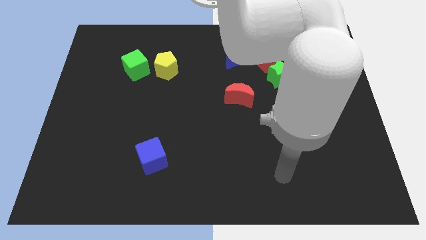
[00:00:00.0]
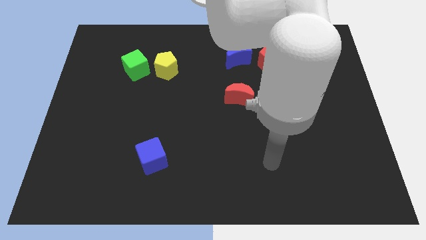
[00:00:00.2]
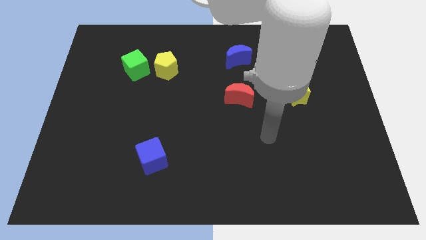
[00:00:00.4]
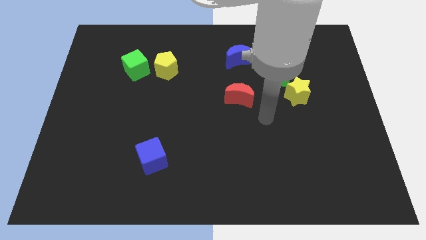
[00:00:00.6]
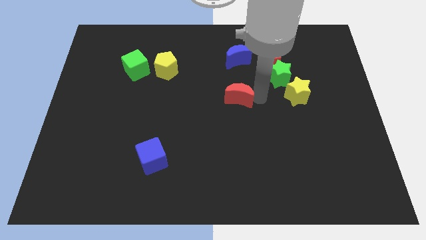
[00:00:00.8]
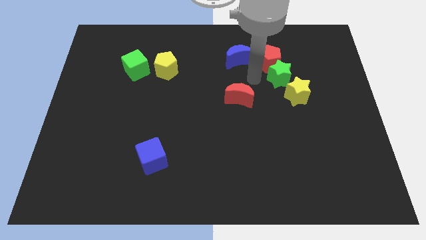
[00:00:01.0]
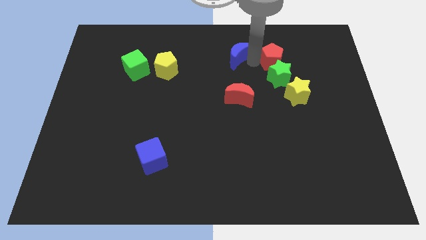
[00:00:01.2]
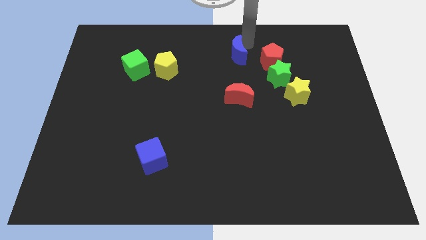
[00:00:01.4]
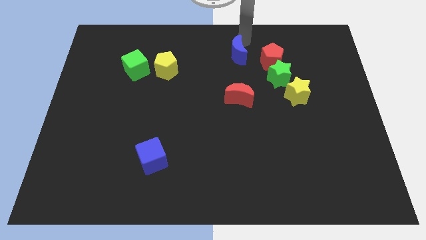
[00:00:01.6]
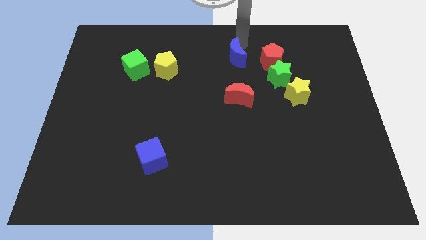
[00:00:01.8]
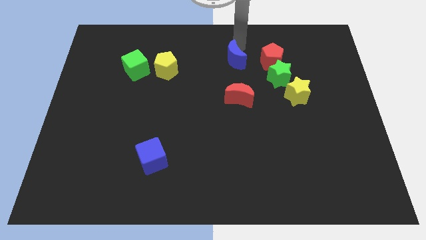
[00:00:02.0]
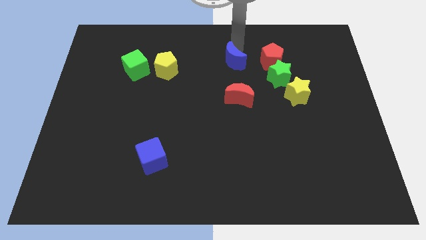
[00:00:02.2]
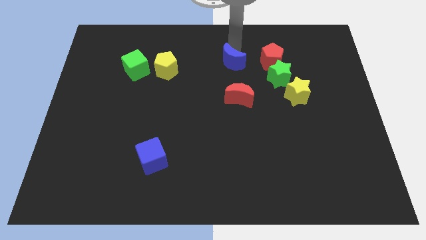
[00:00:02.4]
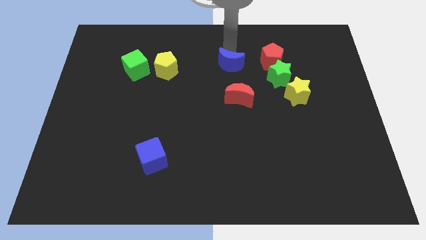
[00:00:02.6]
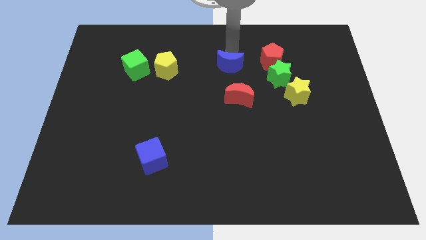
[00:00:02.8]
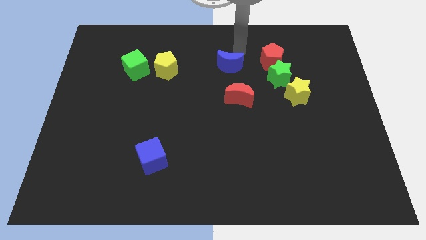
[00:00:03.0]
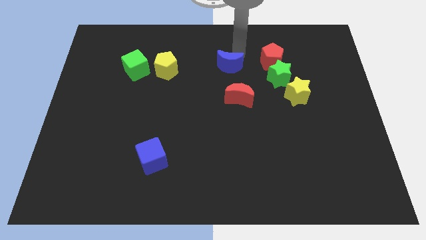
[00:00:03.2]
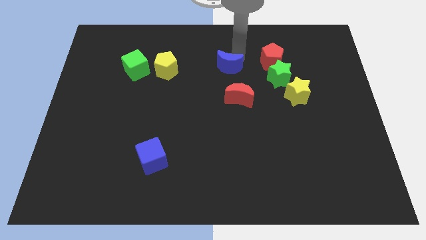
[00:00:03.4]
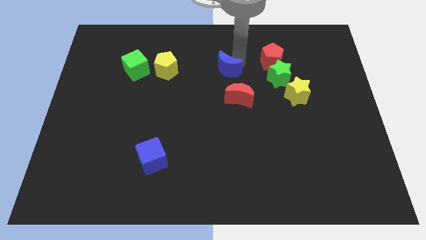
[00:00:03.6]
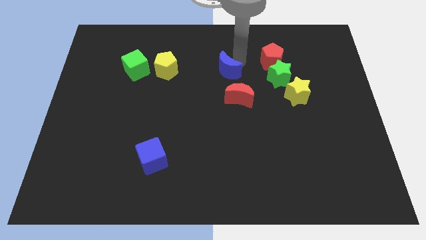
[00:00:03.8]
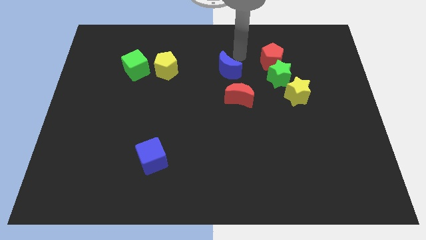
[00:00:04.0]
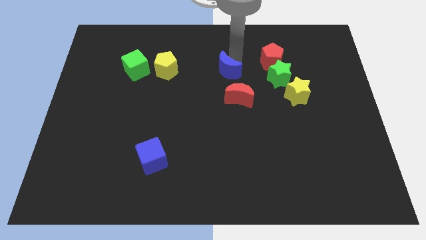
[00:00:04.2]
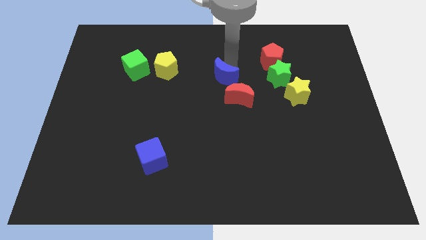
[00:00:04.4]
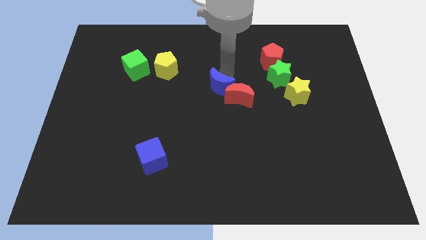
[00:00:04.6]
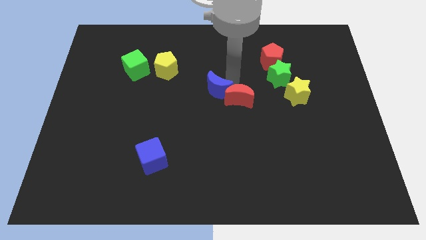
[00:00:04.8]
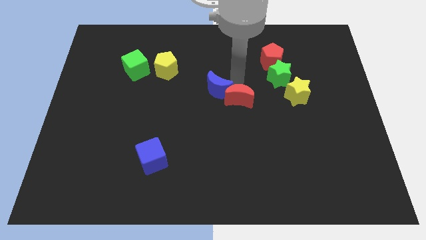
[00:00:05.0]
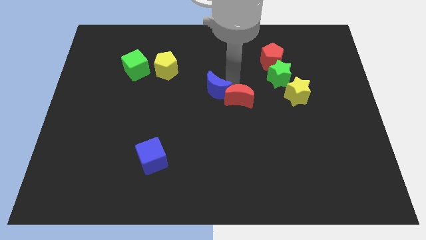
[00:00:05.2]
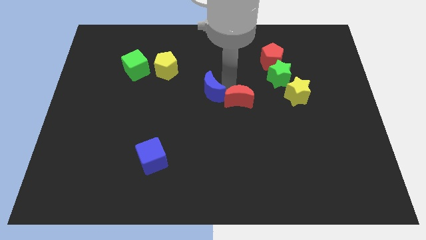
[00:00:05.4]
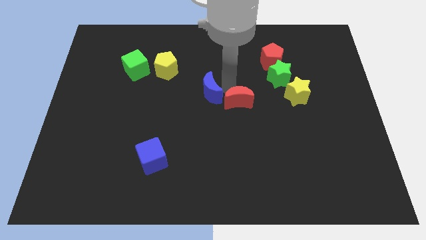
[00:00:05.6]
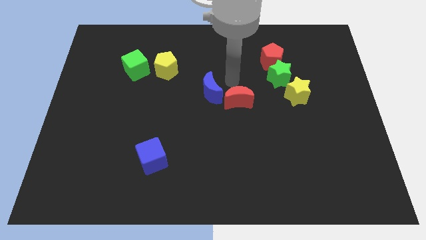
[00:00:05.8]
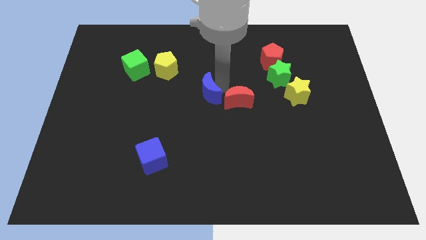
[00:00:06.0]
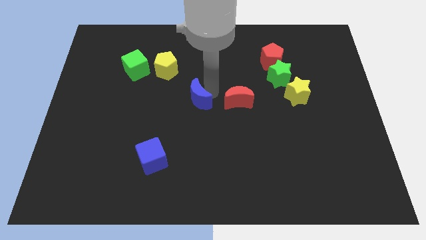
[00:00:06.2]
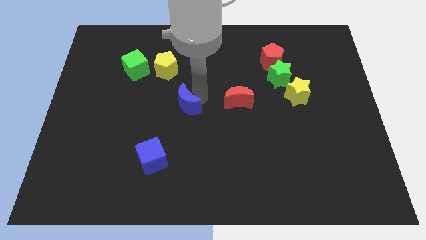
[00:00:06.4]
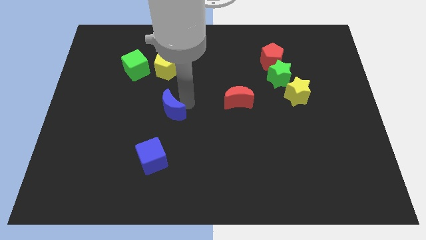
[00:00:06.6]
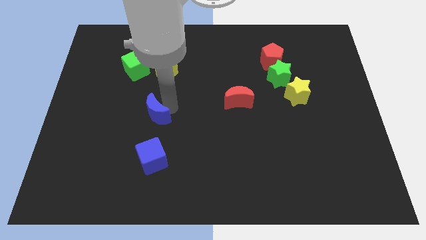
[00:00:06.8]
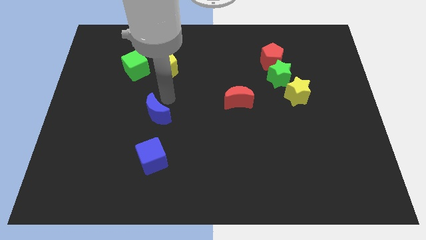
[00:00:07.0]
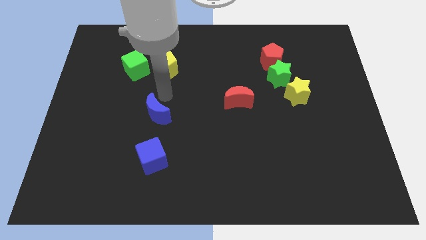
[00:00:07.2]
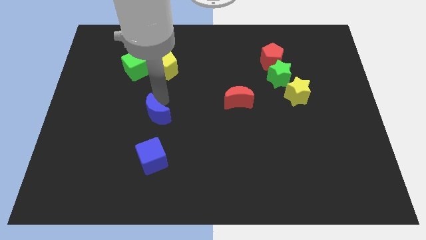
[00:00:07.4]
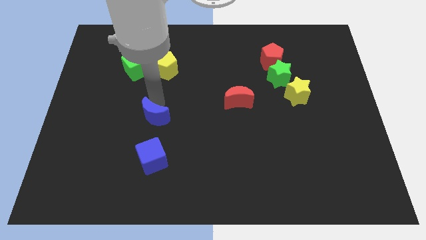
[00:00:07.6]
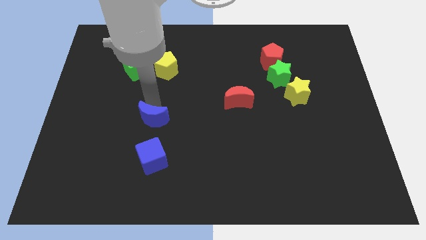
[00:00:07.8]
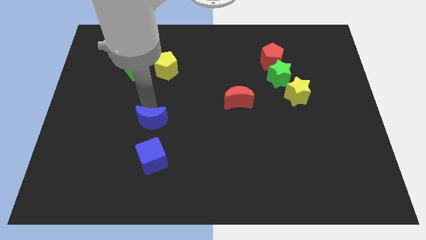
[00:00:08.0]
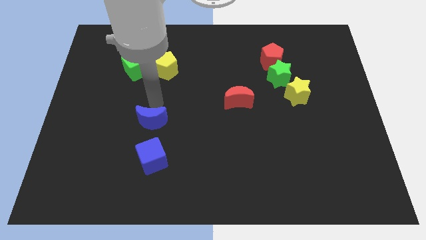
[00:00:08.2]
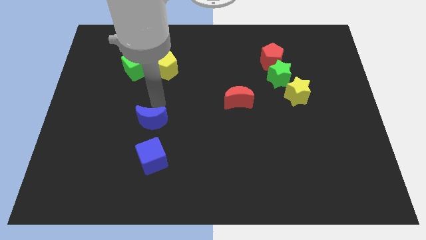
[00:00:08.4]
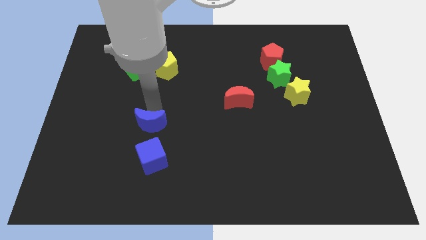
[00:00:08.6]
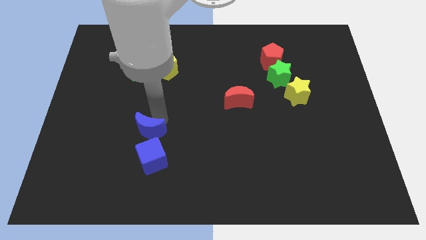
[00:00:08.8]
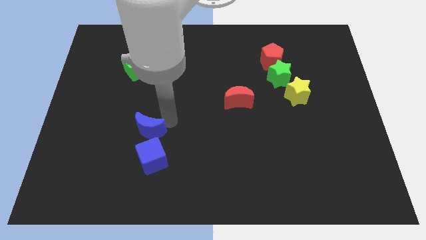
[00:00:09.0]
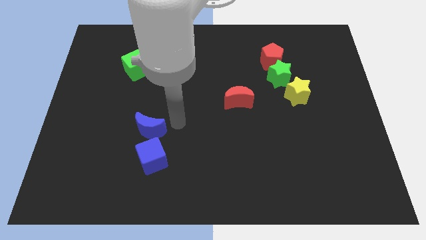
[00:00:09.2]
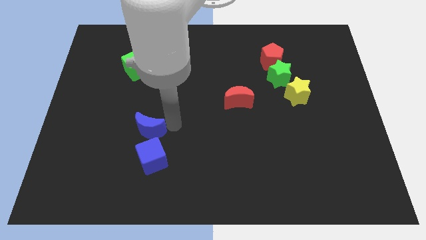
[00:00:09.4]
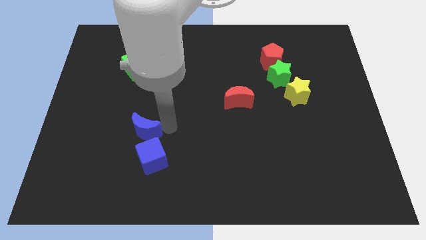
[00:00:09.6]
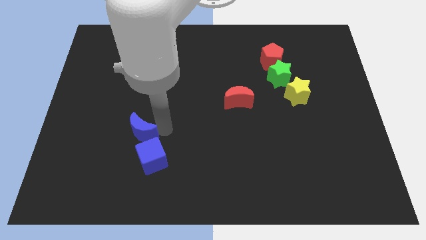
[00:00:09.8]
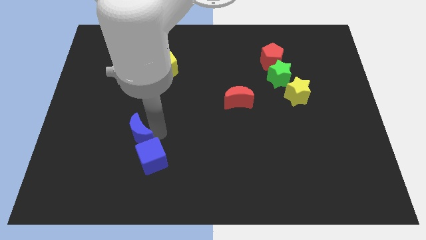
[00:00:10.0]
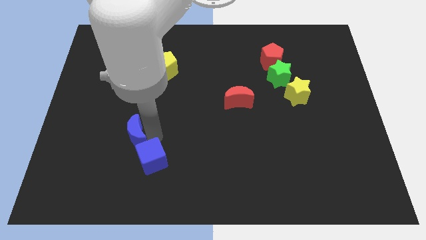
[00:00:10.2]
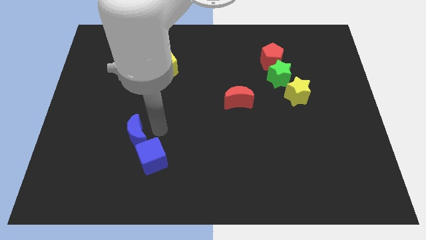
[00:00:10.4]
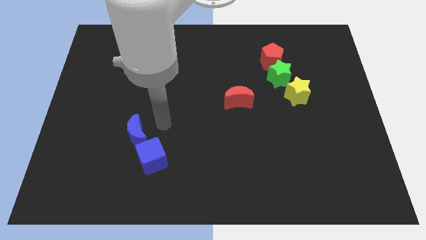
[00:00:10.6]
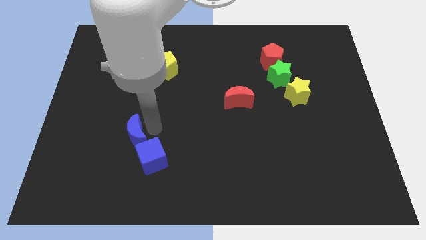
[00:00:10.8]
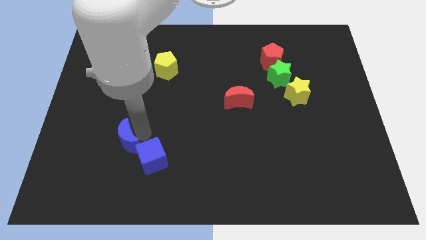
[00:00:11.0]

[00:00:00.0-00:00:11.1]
slide the blue moon to the left of the blue cube

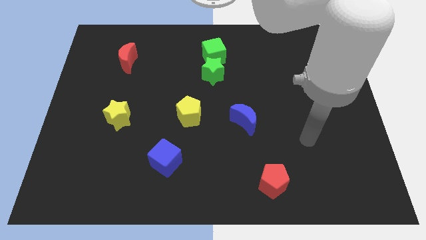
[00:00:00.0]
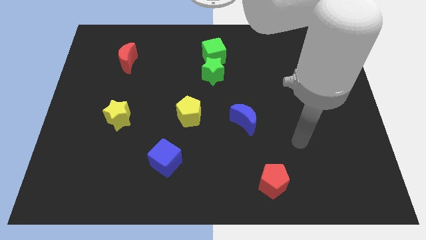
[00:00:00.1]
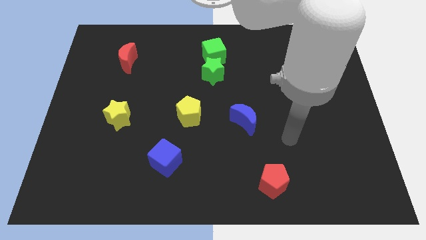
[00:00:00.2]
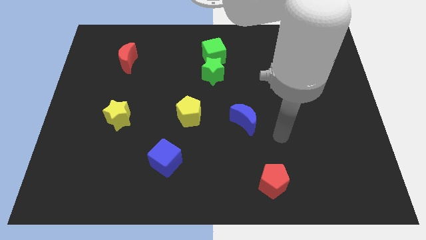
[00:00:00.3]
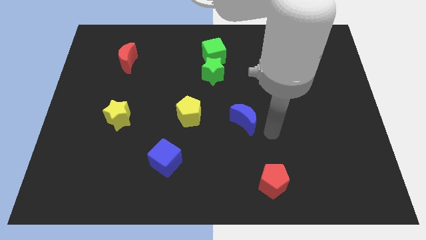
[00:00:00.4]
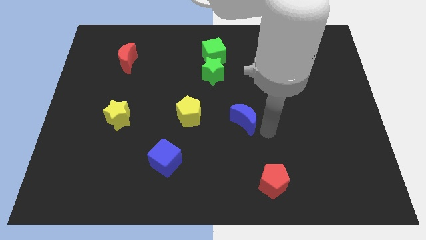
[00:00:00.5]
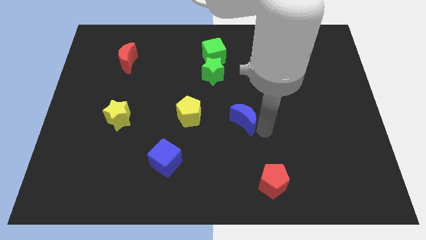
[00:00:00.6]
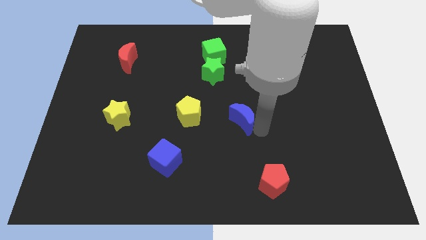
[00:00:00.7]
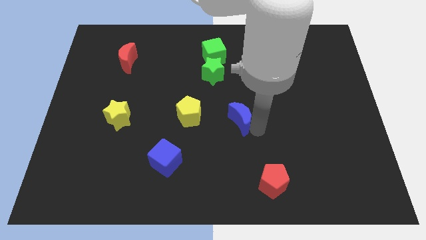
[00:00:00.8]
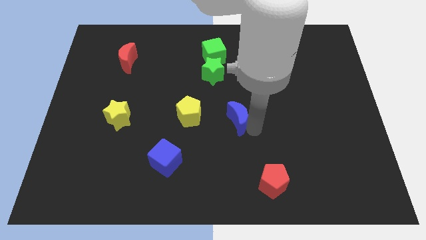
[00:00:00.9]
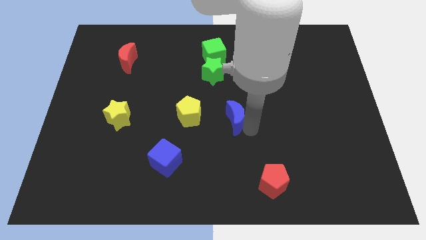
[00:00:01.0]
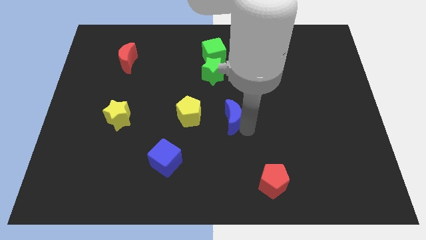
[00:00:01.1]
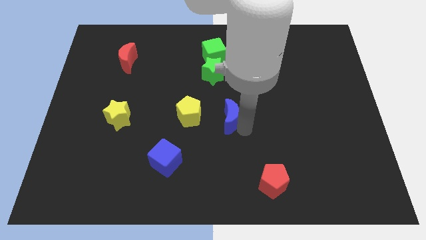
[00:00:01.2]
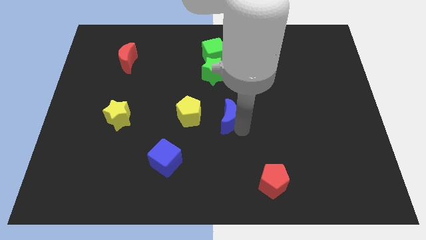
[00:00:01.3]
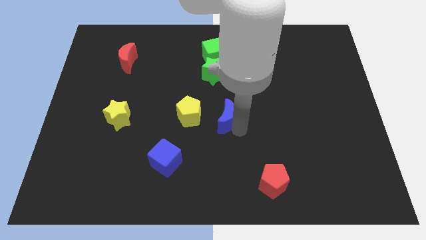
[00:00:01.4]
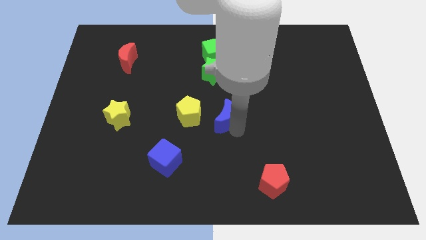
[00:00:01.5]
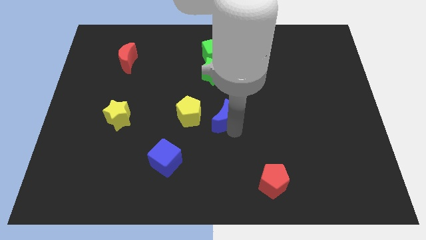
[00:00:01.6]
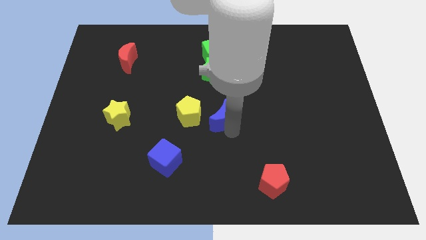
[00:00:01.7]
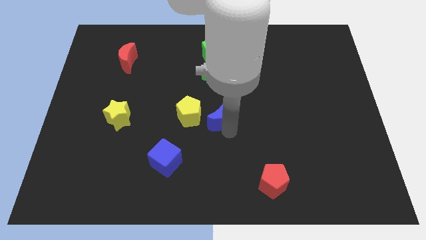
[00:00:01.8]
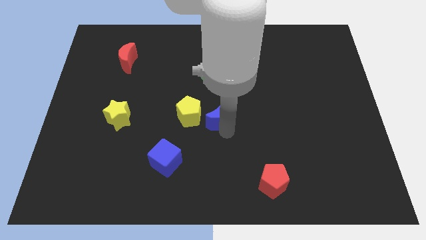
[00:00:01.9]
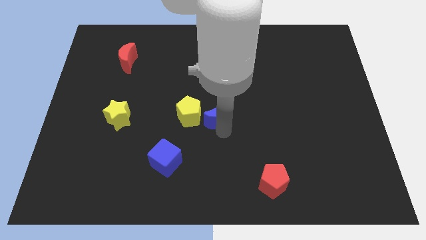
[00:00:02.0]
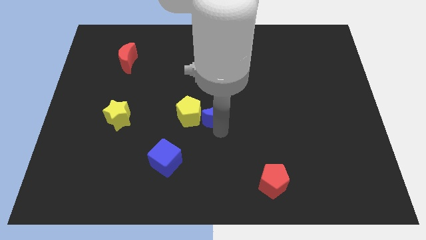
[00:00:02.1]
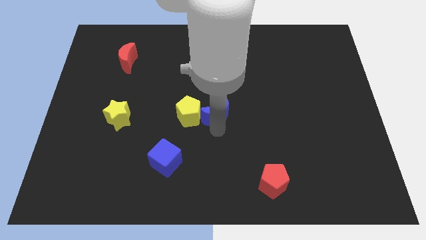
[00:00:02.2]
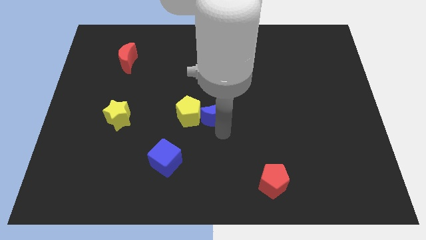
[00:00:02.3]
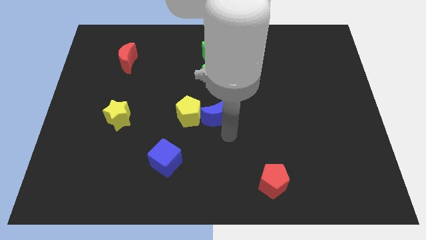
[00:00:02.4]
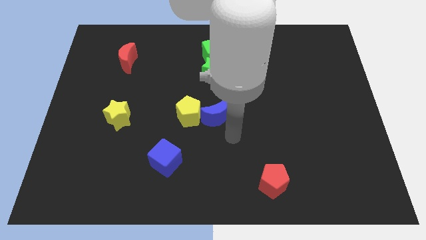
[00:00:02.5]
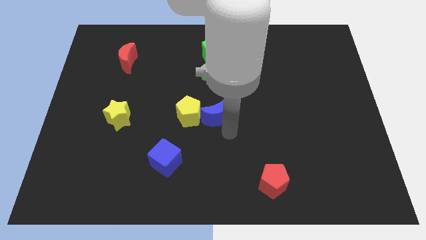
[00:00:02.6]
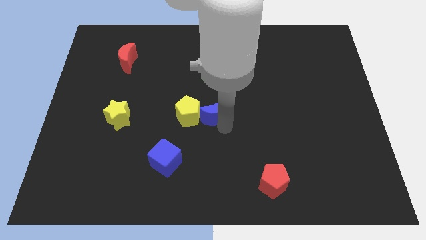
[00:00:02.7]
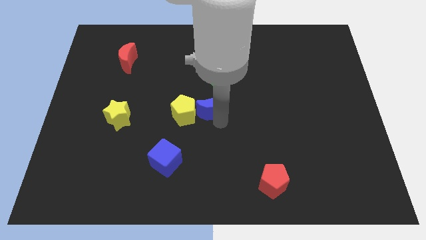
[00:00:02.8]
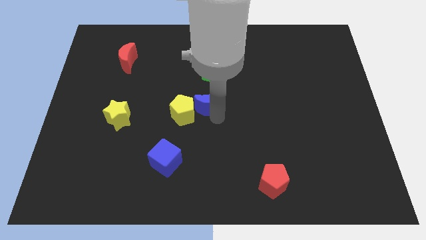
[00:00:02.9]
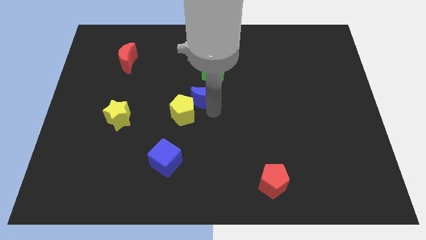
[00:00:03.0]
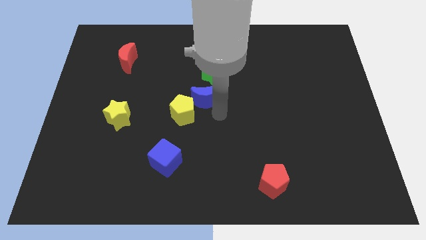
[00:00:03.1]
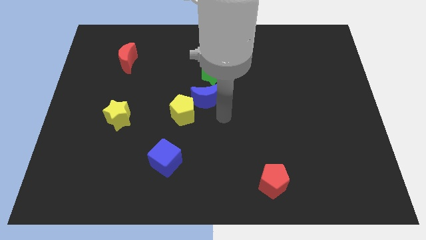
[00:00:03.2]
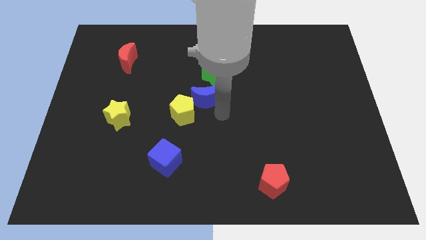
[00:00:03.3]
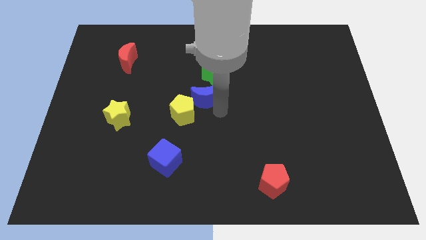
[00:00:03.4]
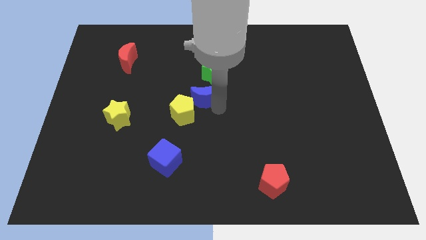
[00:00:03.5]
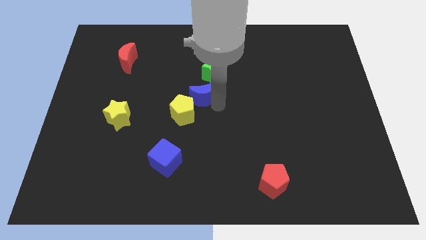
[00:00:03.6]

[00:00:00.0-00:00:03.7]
move the blue moon to the top side of the yellow pentagon
